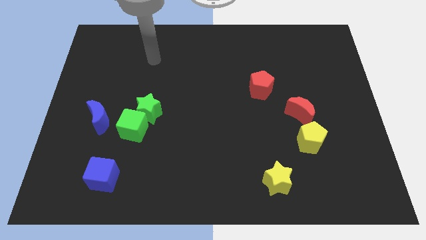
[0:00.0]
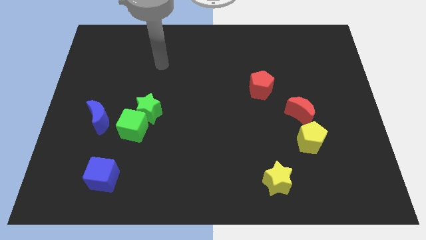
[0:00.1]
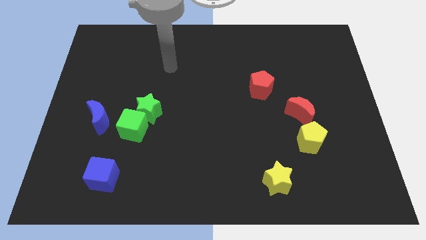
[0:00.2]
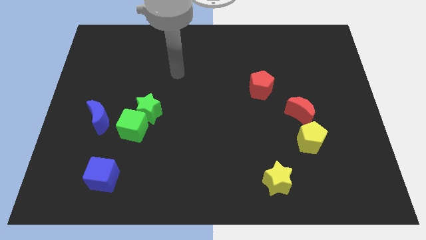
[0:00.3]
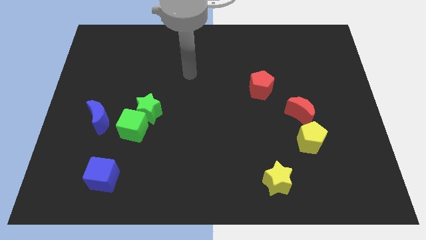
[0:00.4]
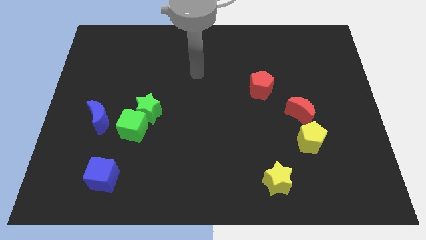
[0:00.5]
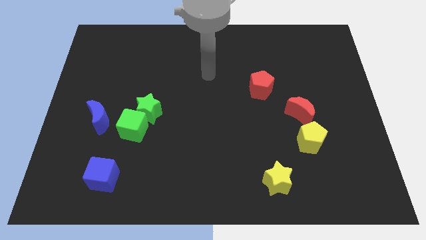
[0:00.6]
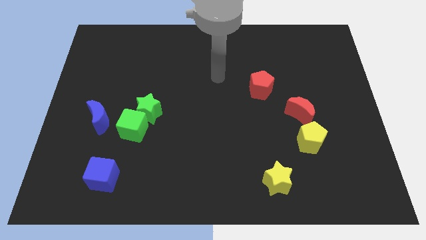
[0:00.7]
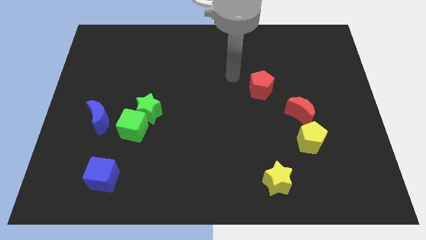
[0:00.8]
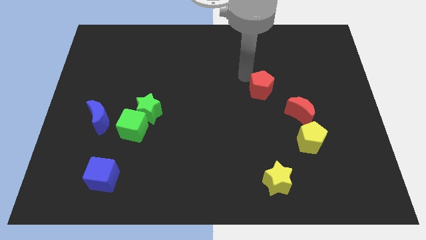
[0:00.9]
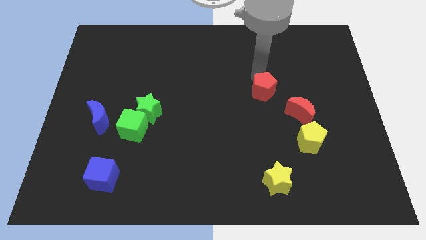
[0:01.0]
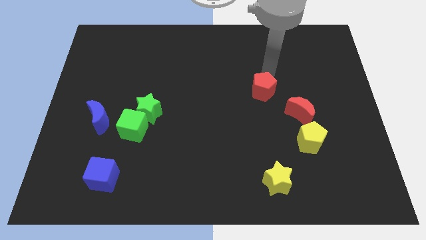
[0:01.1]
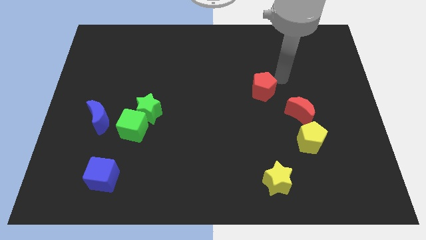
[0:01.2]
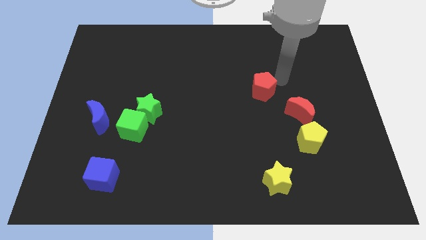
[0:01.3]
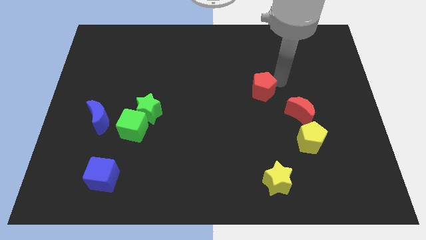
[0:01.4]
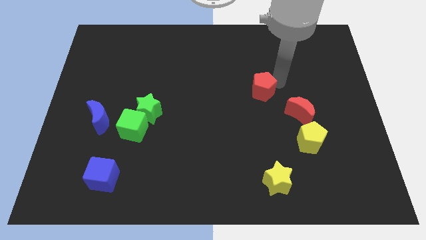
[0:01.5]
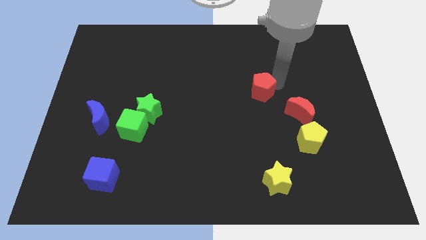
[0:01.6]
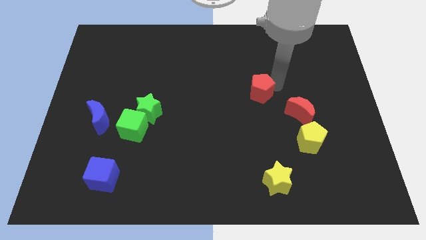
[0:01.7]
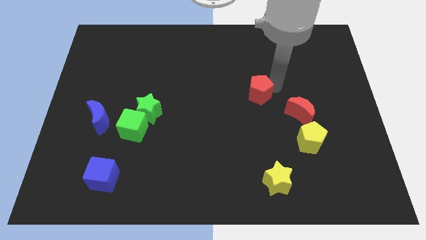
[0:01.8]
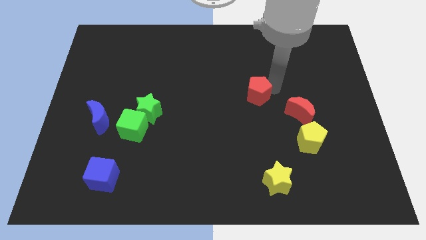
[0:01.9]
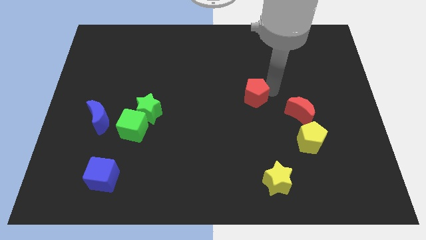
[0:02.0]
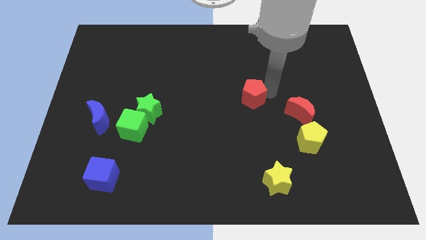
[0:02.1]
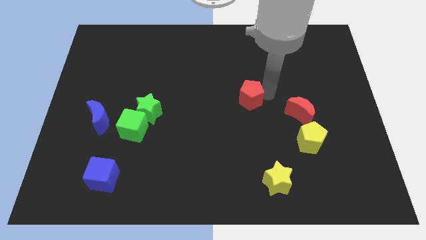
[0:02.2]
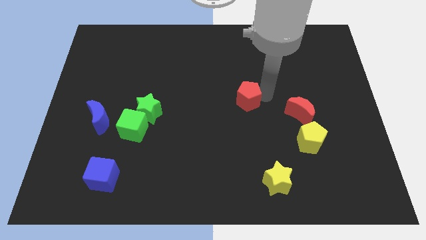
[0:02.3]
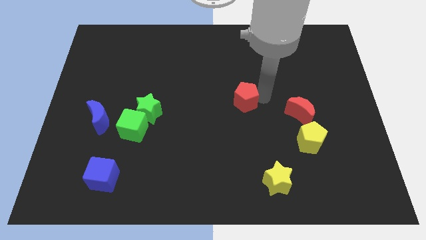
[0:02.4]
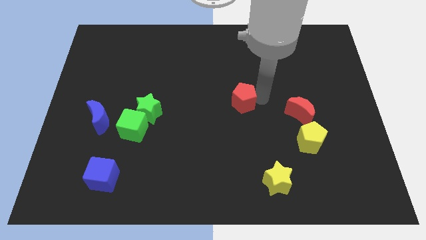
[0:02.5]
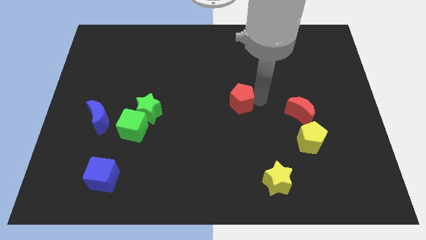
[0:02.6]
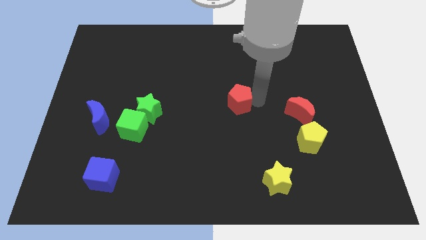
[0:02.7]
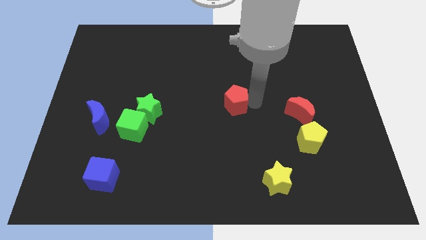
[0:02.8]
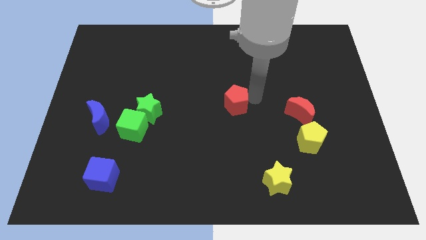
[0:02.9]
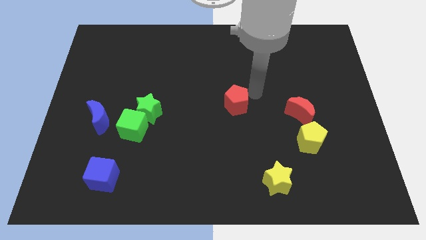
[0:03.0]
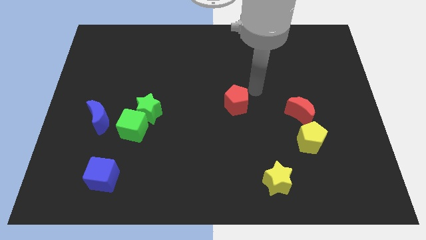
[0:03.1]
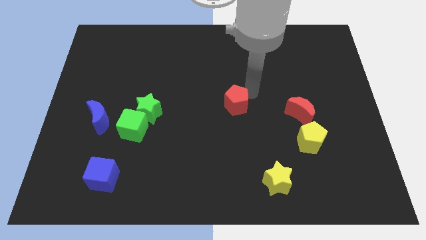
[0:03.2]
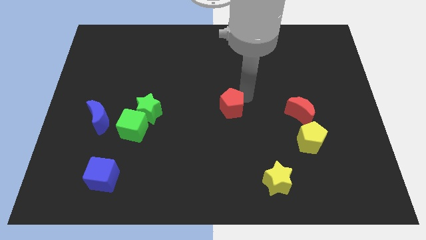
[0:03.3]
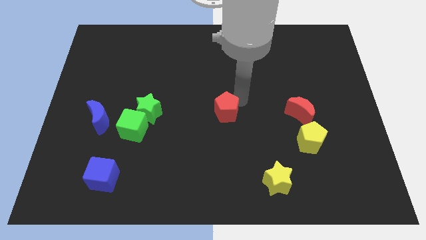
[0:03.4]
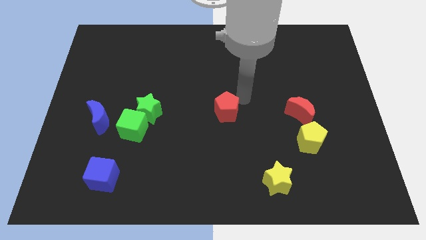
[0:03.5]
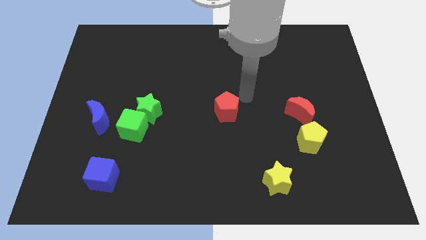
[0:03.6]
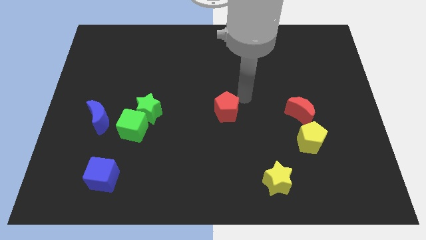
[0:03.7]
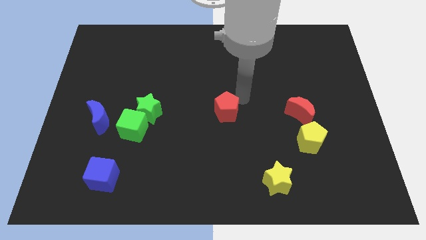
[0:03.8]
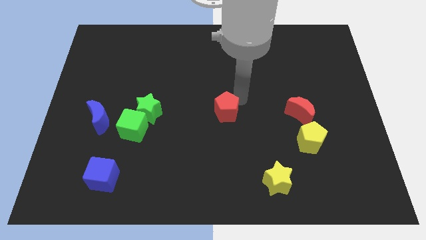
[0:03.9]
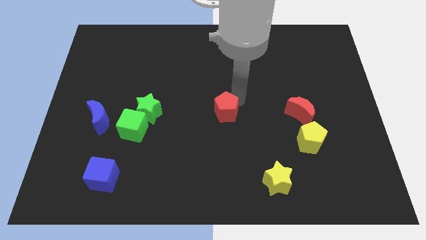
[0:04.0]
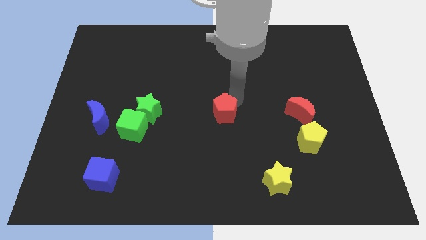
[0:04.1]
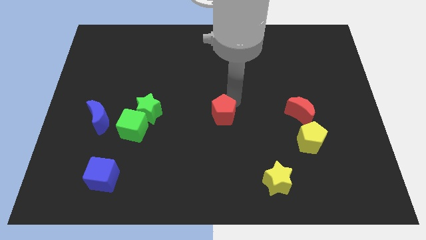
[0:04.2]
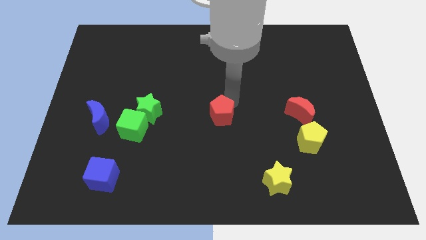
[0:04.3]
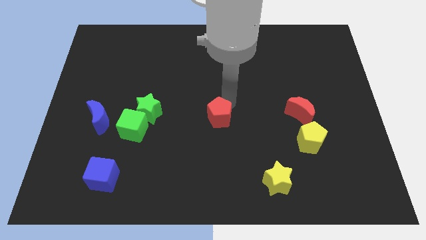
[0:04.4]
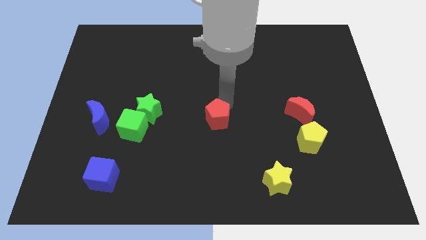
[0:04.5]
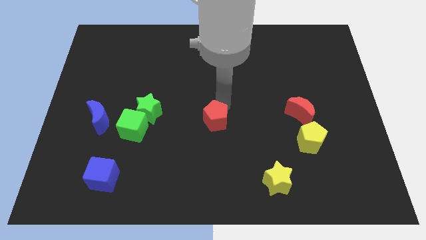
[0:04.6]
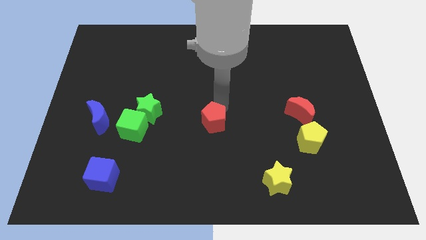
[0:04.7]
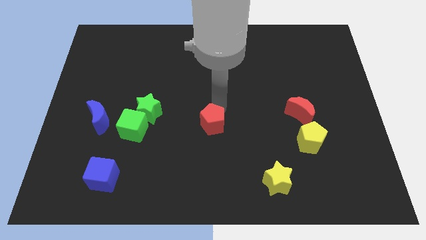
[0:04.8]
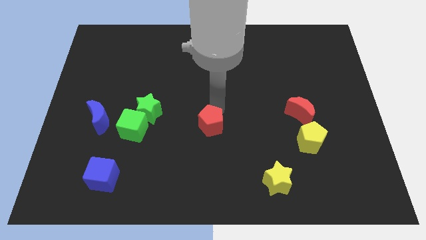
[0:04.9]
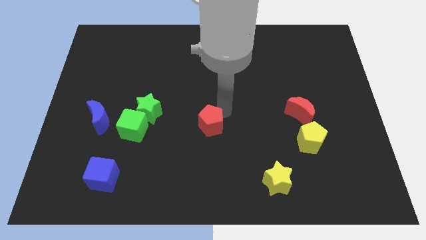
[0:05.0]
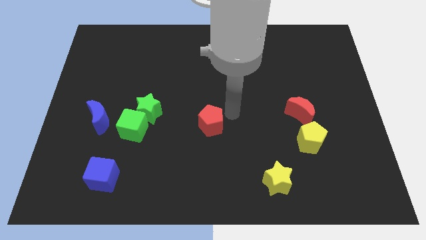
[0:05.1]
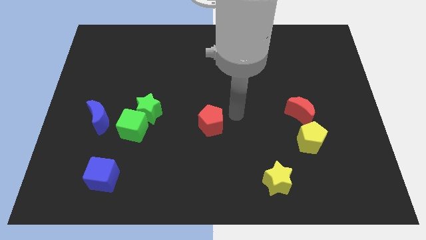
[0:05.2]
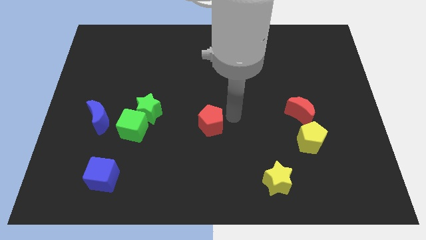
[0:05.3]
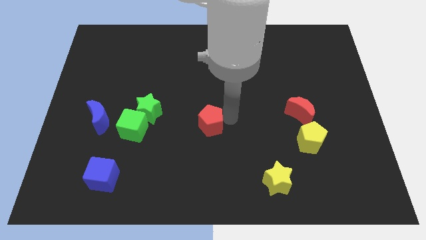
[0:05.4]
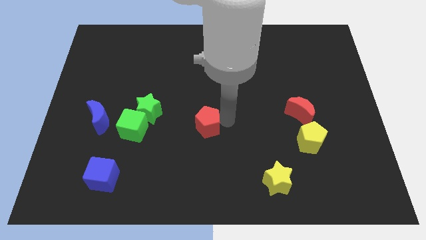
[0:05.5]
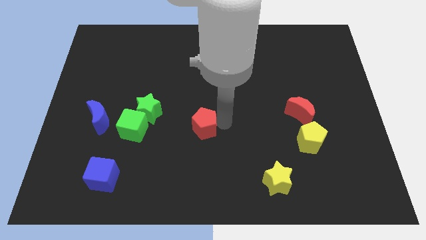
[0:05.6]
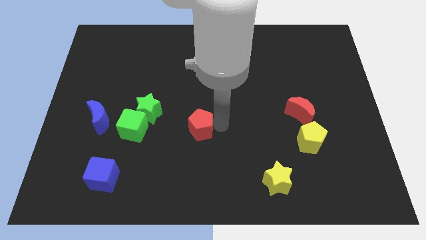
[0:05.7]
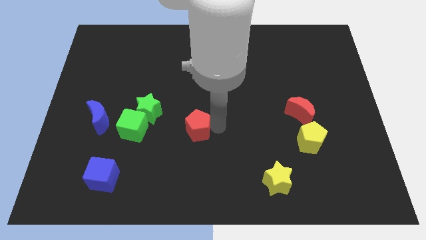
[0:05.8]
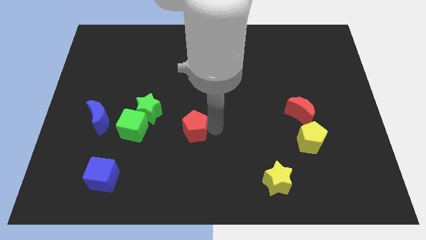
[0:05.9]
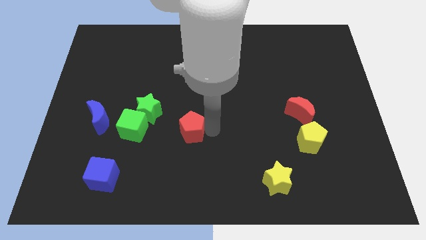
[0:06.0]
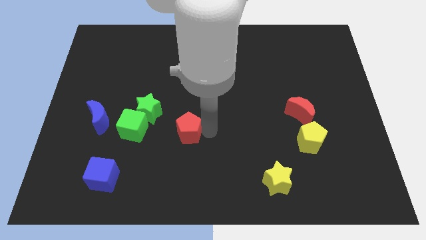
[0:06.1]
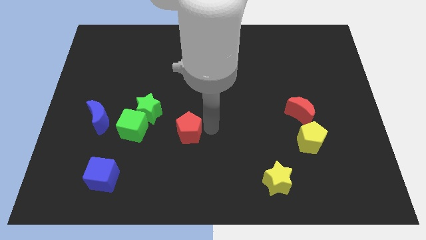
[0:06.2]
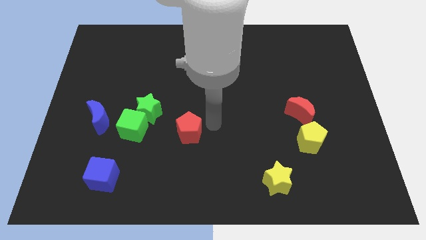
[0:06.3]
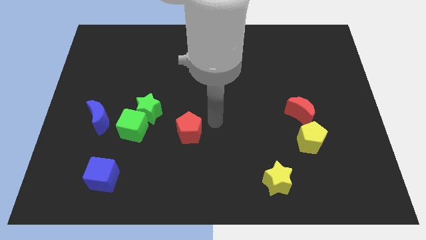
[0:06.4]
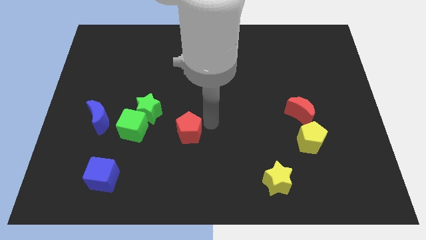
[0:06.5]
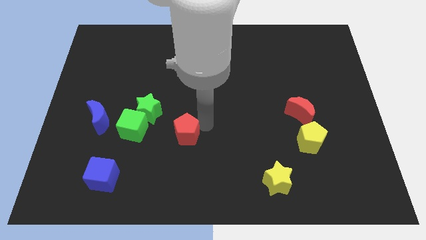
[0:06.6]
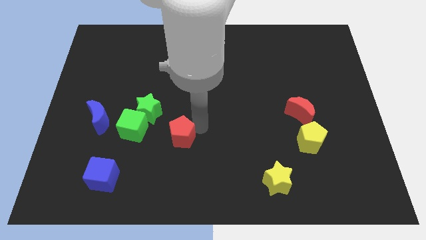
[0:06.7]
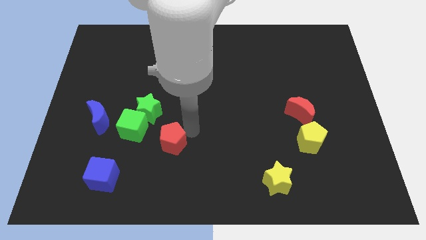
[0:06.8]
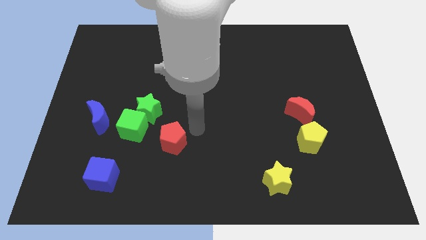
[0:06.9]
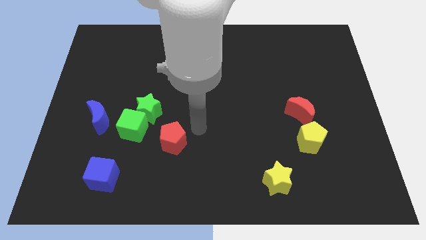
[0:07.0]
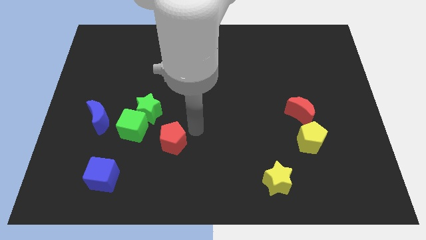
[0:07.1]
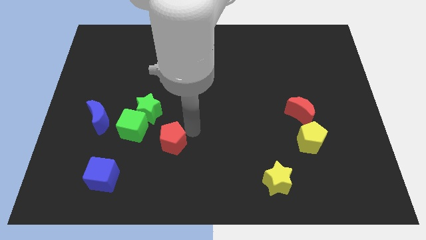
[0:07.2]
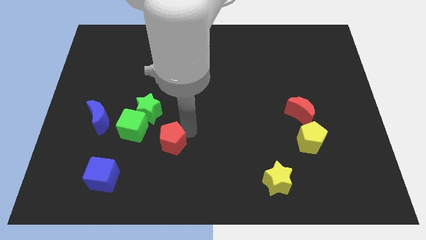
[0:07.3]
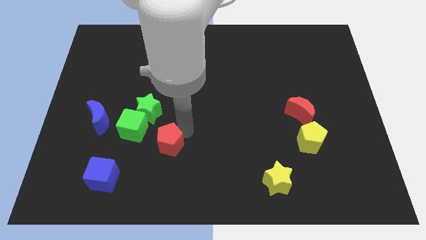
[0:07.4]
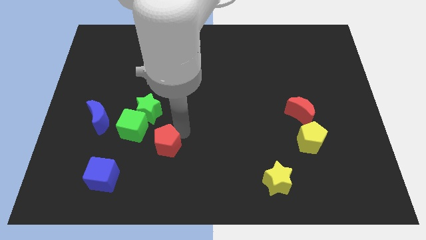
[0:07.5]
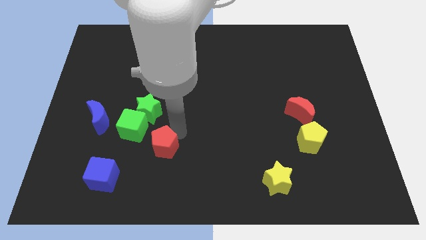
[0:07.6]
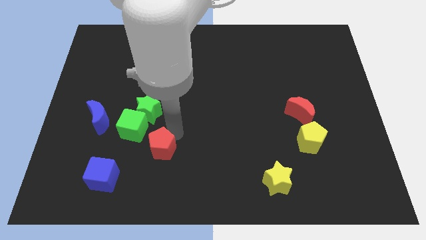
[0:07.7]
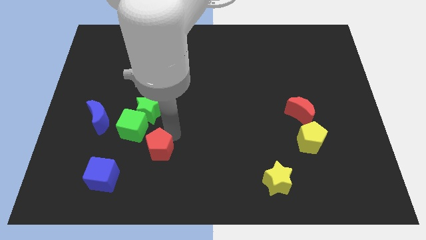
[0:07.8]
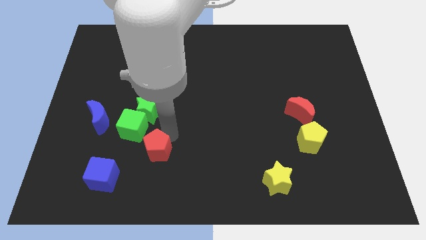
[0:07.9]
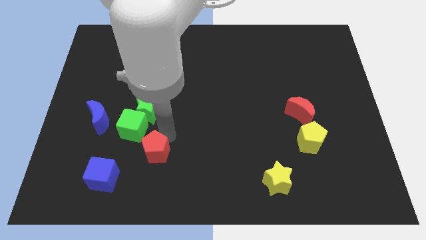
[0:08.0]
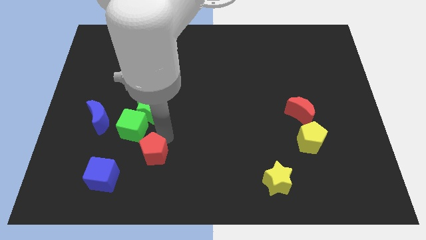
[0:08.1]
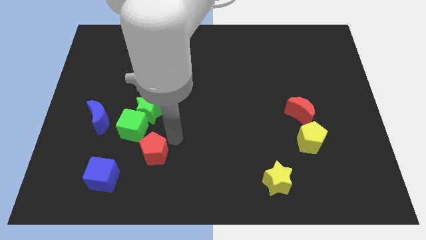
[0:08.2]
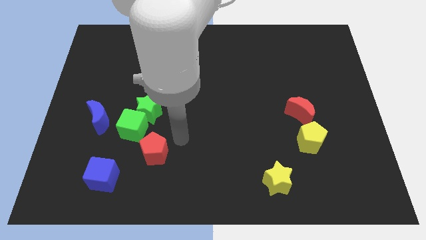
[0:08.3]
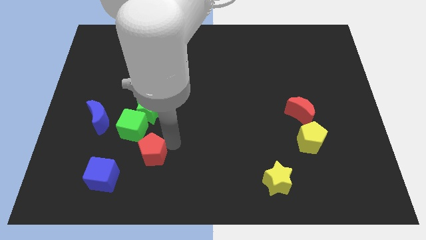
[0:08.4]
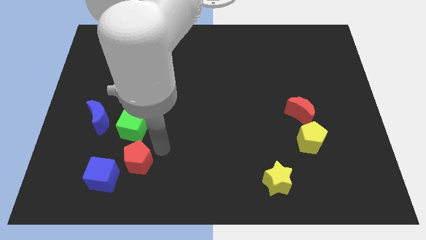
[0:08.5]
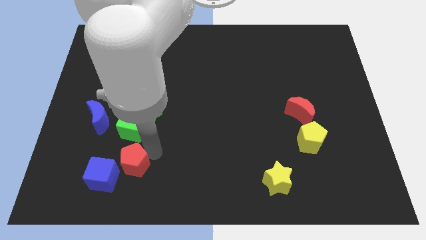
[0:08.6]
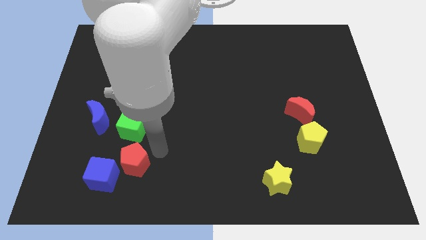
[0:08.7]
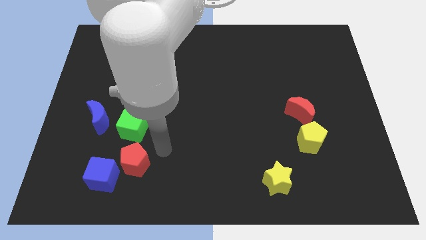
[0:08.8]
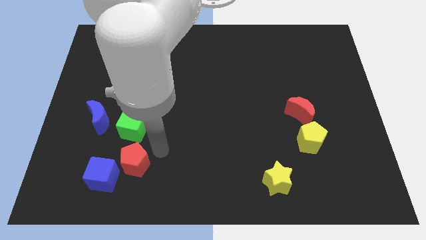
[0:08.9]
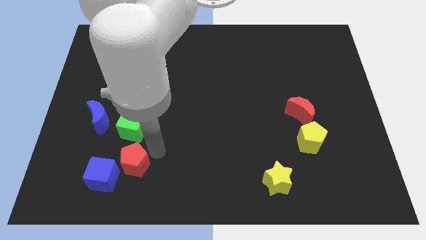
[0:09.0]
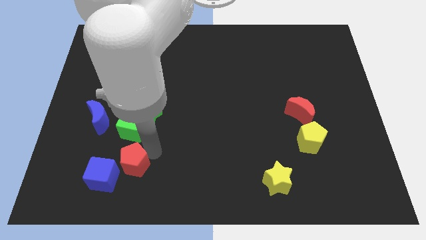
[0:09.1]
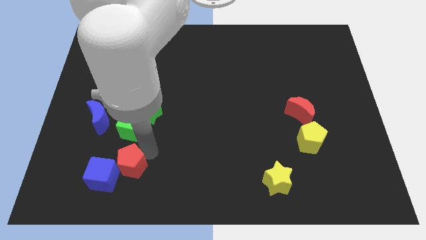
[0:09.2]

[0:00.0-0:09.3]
move the red pentagon close to the blue cube
